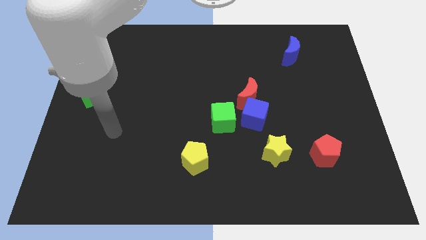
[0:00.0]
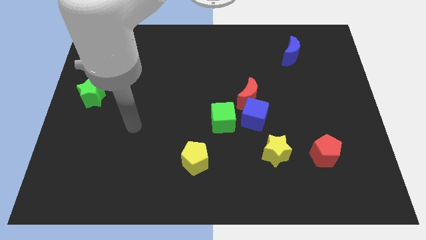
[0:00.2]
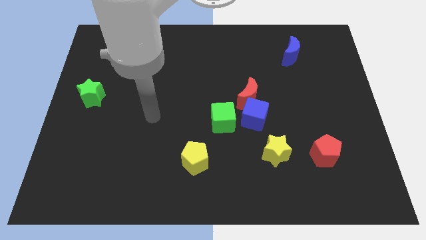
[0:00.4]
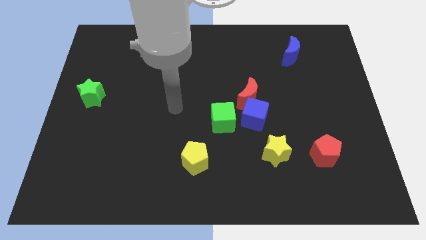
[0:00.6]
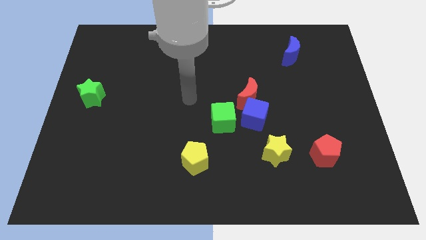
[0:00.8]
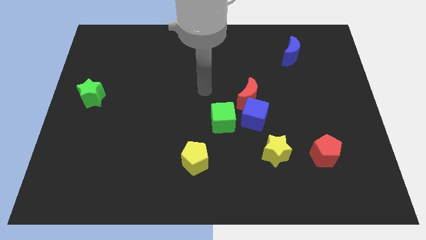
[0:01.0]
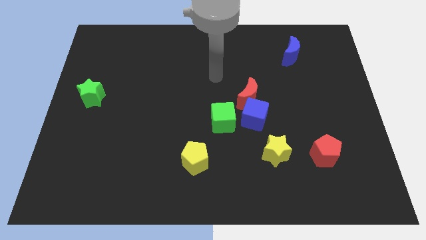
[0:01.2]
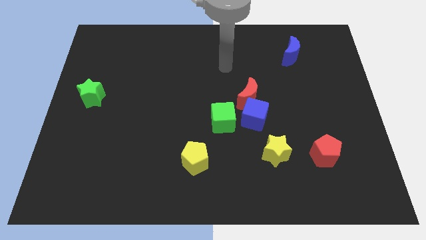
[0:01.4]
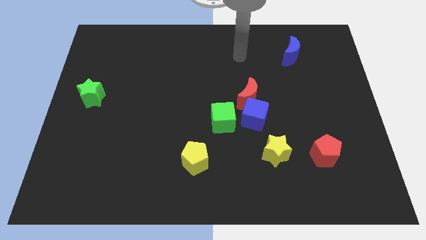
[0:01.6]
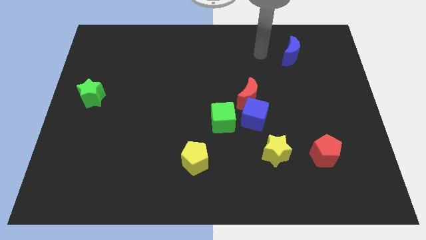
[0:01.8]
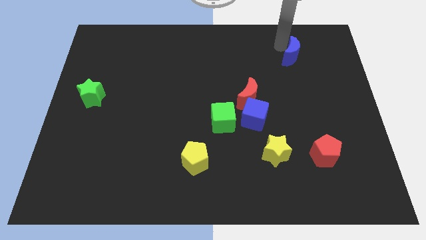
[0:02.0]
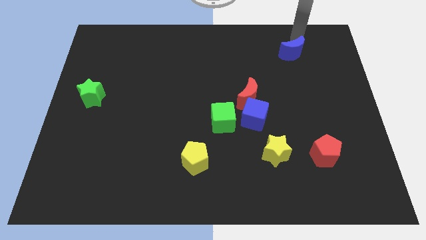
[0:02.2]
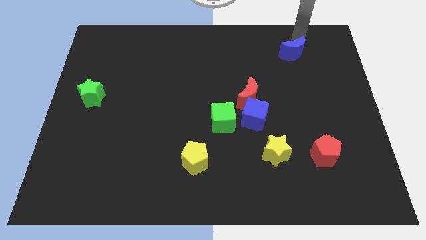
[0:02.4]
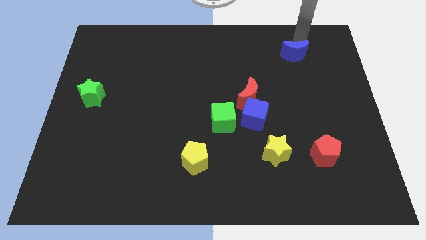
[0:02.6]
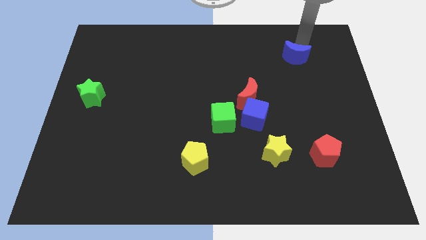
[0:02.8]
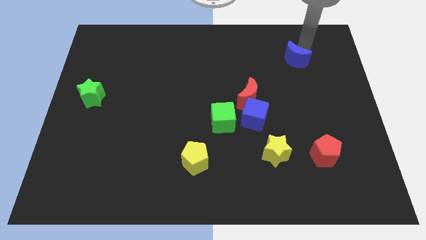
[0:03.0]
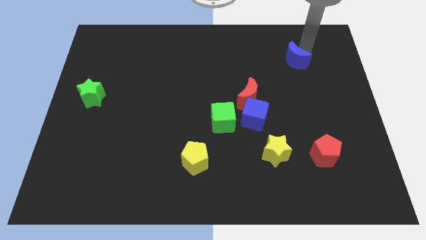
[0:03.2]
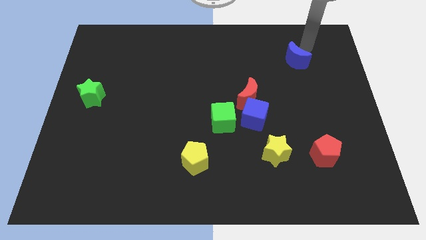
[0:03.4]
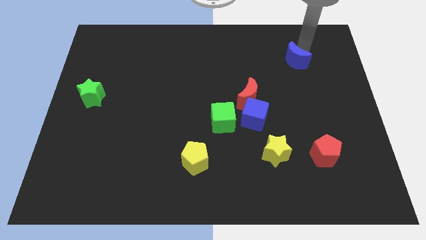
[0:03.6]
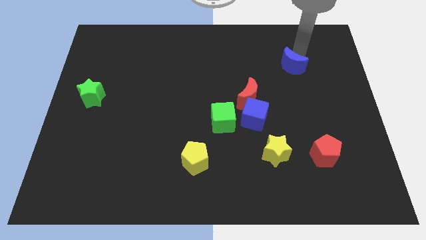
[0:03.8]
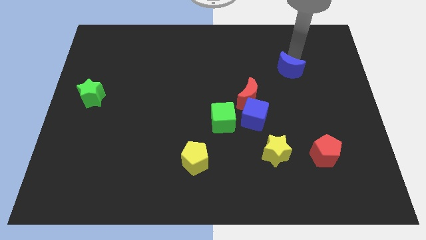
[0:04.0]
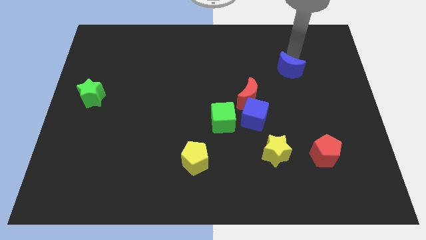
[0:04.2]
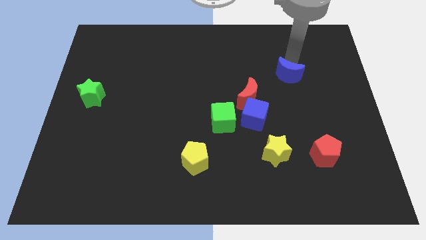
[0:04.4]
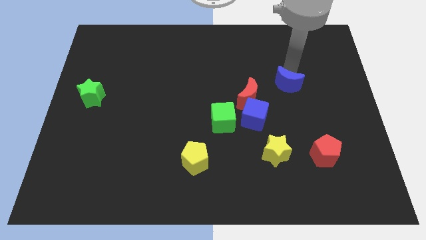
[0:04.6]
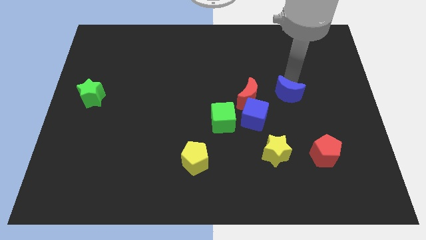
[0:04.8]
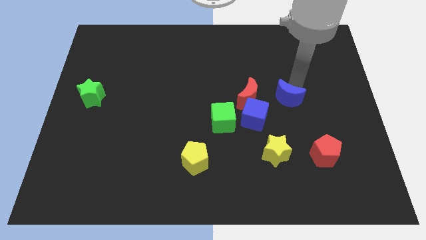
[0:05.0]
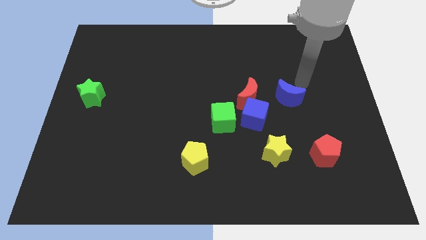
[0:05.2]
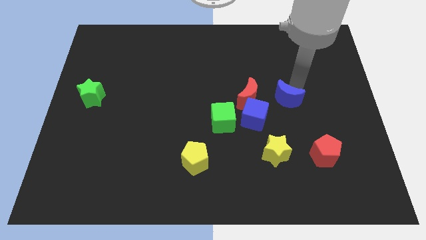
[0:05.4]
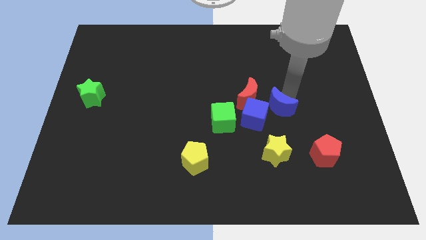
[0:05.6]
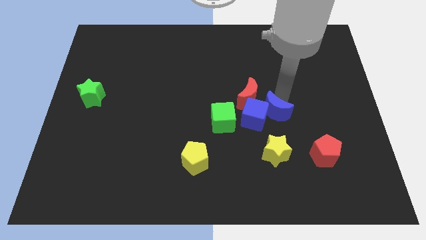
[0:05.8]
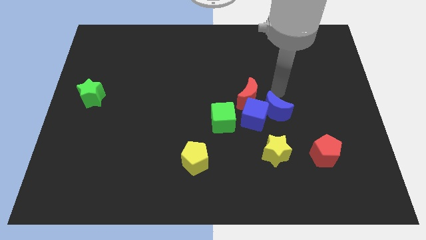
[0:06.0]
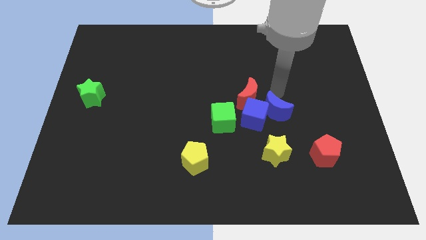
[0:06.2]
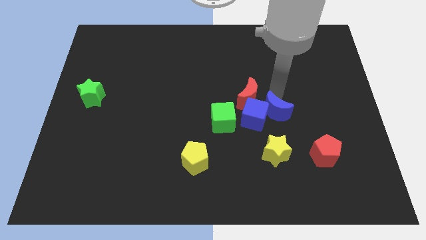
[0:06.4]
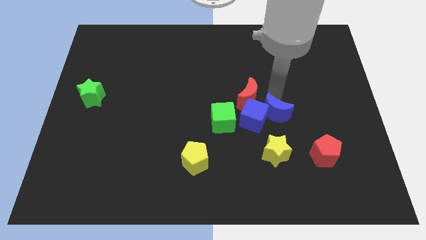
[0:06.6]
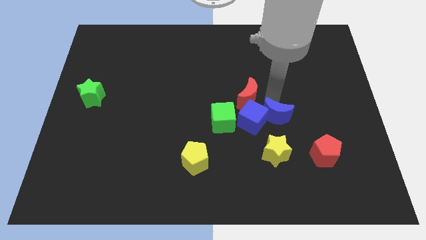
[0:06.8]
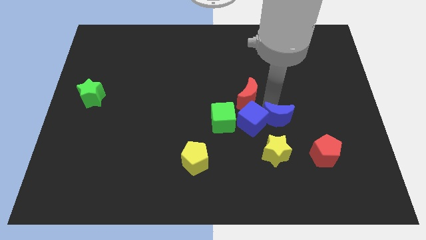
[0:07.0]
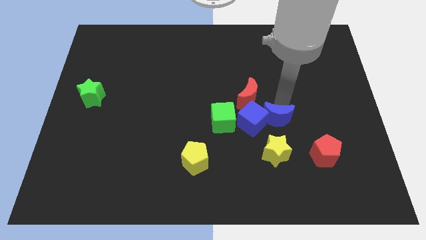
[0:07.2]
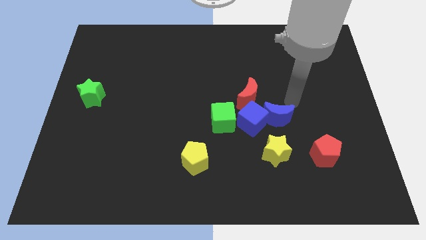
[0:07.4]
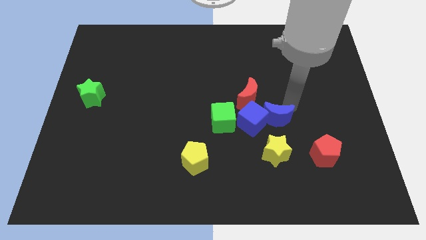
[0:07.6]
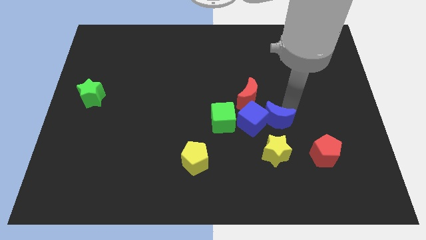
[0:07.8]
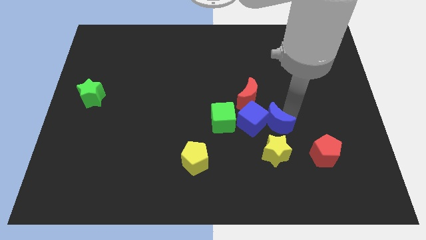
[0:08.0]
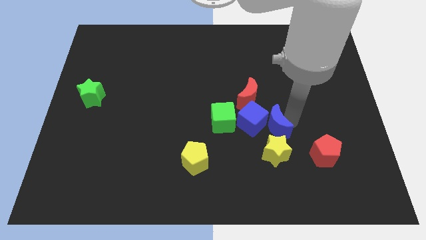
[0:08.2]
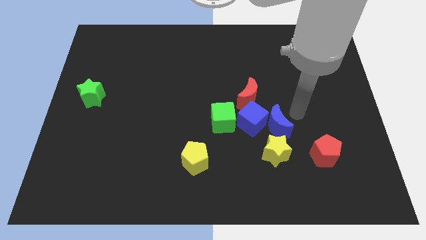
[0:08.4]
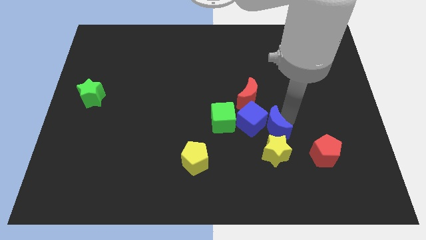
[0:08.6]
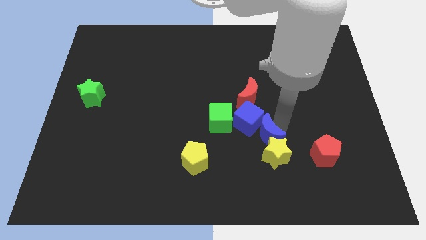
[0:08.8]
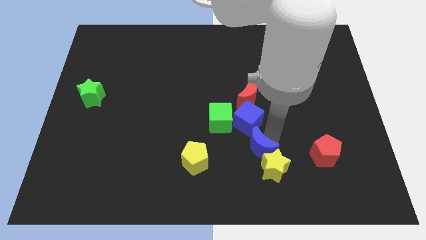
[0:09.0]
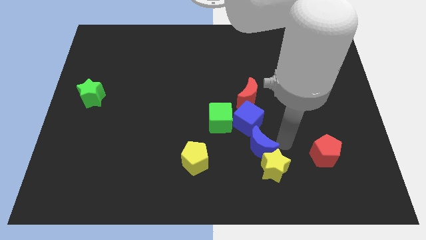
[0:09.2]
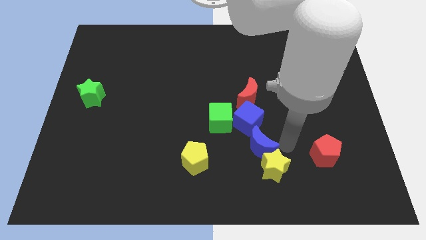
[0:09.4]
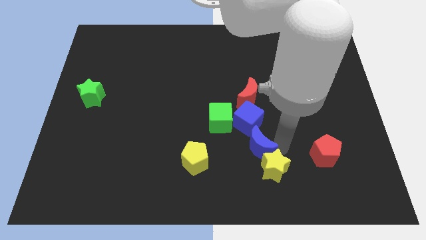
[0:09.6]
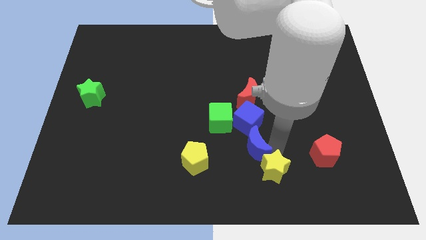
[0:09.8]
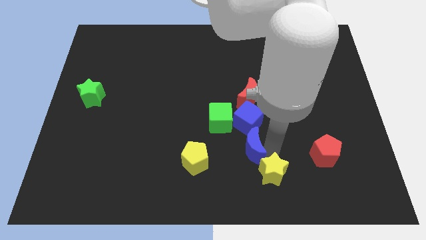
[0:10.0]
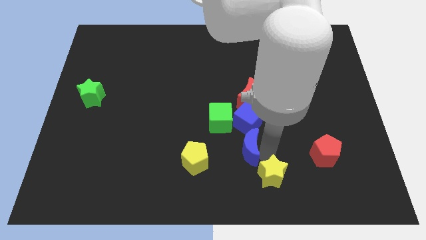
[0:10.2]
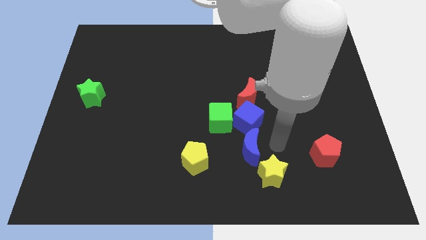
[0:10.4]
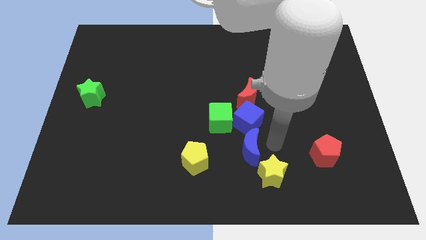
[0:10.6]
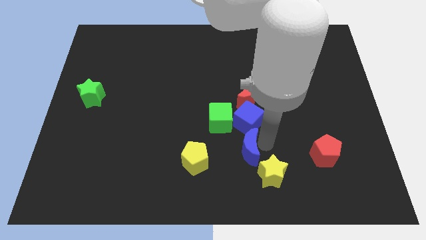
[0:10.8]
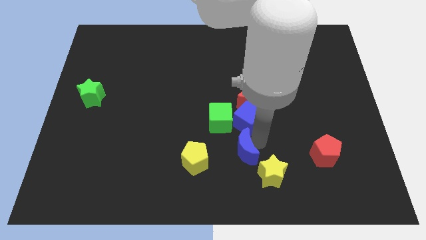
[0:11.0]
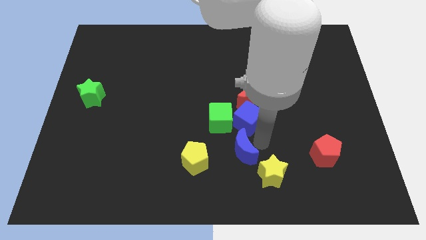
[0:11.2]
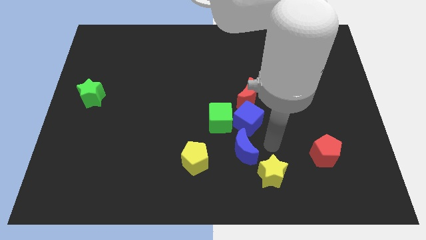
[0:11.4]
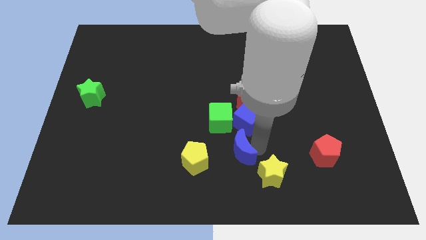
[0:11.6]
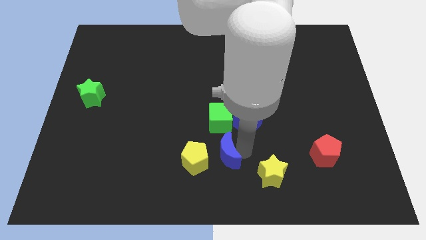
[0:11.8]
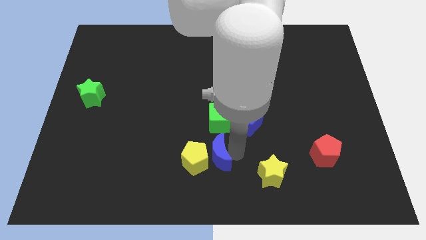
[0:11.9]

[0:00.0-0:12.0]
move the blue moon close to the yellow pentagon

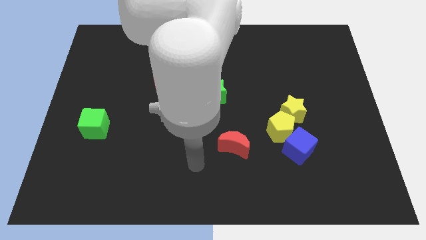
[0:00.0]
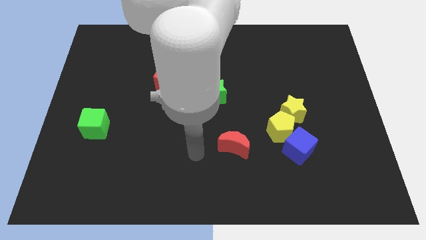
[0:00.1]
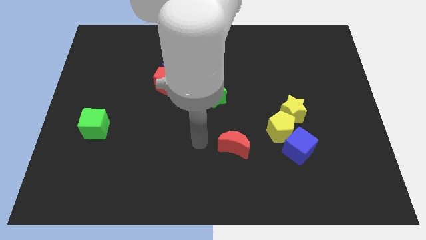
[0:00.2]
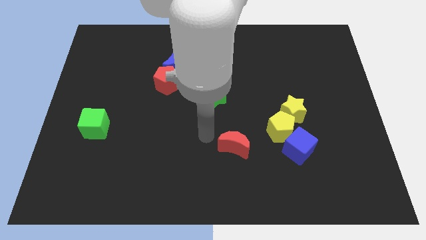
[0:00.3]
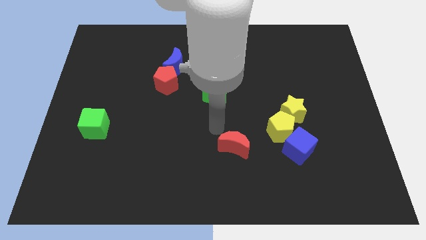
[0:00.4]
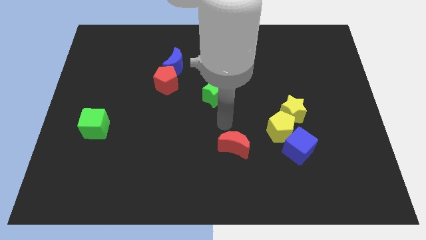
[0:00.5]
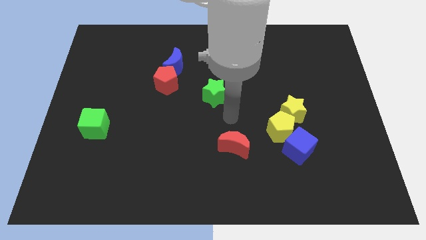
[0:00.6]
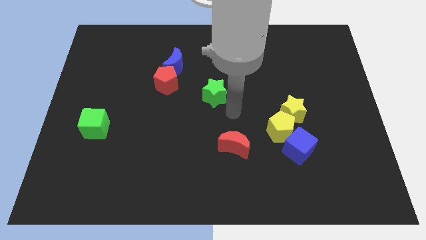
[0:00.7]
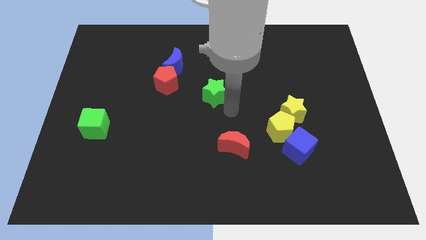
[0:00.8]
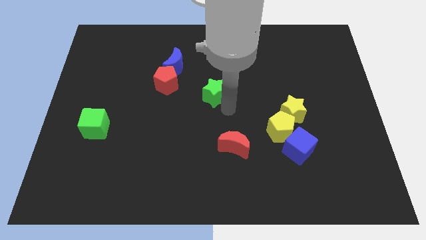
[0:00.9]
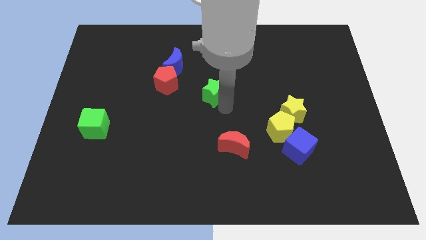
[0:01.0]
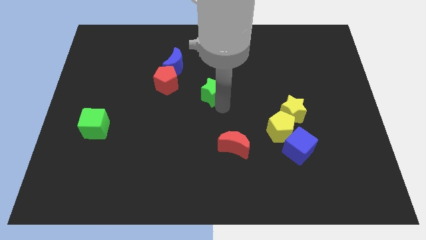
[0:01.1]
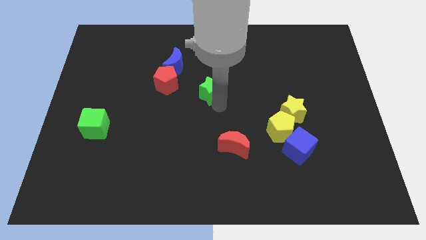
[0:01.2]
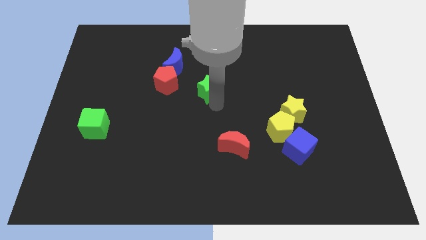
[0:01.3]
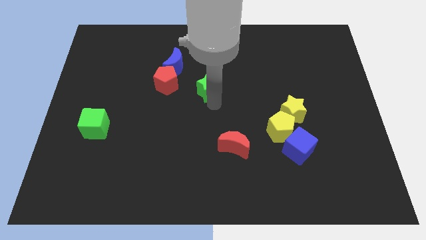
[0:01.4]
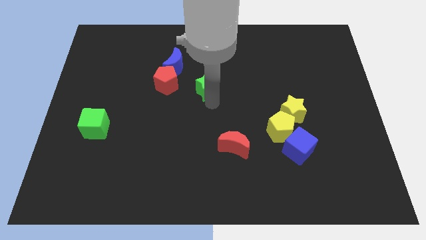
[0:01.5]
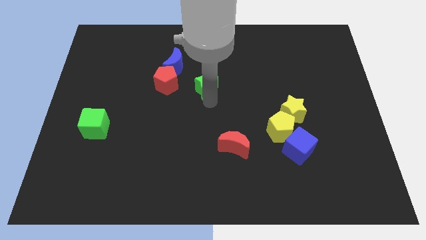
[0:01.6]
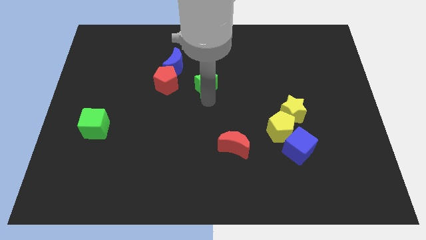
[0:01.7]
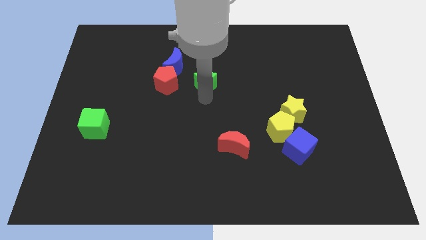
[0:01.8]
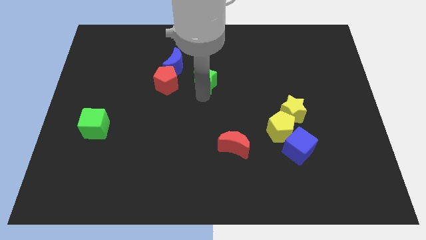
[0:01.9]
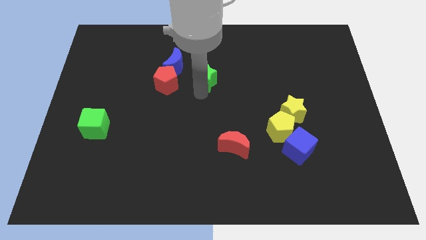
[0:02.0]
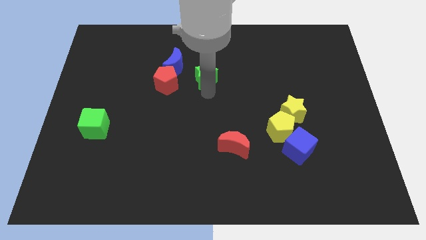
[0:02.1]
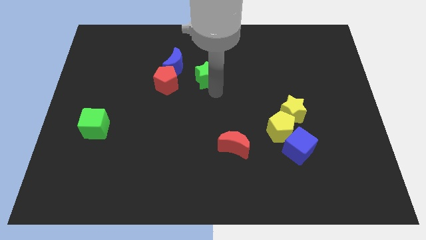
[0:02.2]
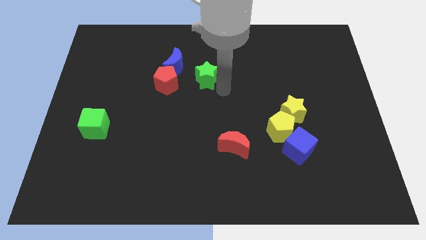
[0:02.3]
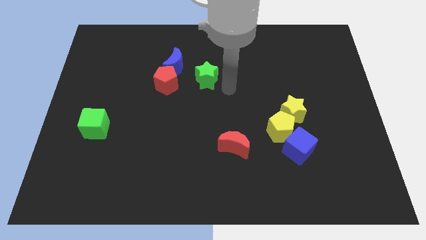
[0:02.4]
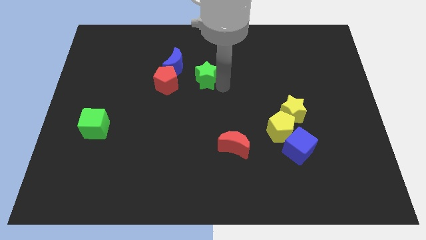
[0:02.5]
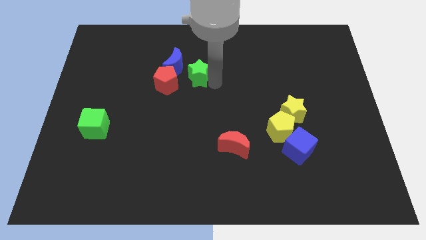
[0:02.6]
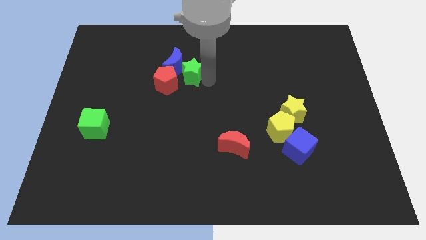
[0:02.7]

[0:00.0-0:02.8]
move the green star to the blue moon
